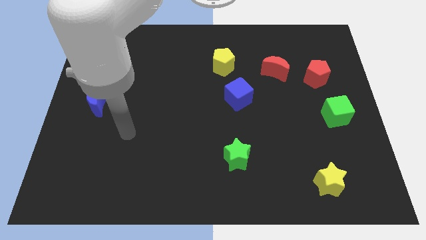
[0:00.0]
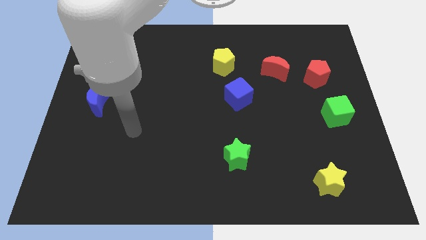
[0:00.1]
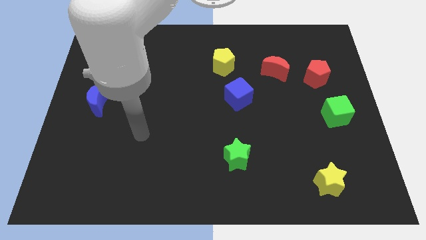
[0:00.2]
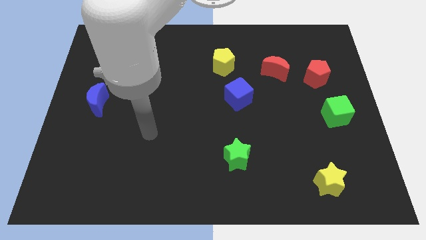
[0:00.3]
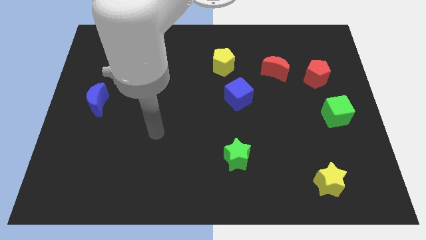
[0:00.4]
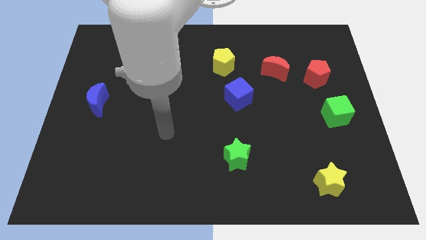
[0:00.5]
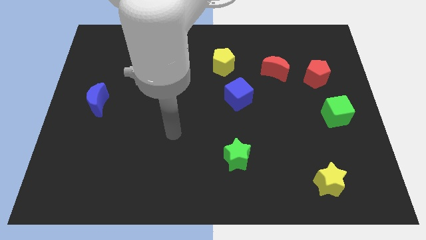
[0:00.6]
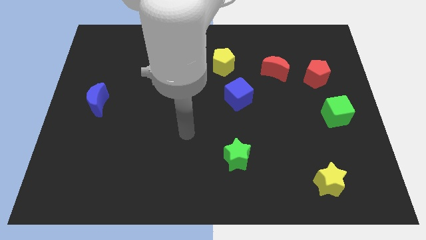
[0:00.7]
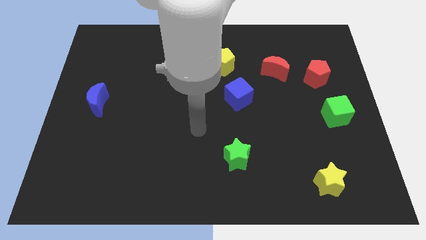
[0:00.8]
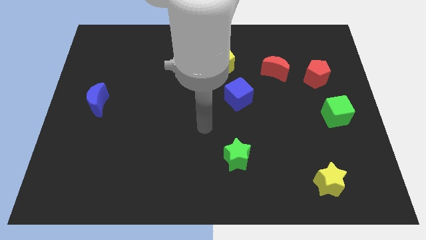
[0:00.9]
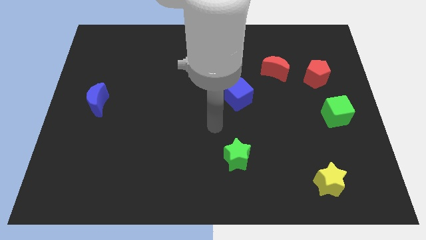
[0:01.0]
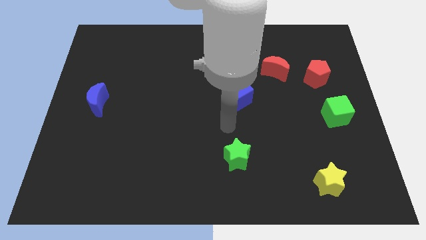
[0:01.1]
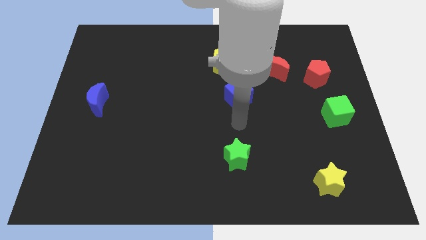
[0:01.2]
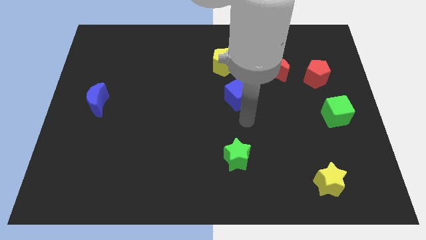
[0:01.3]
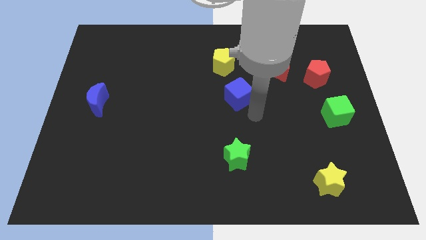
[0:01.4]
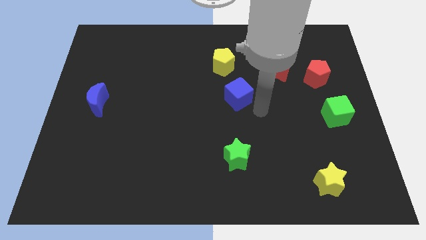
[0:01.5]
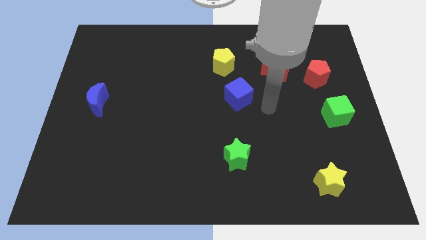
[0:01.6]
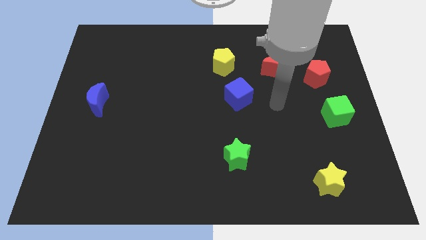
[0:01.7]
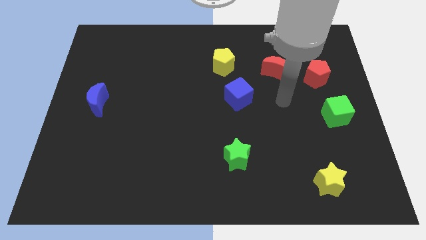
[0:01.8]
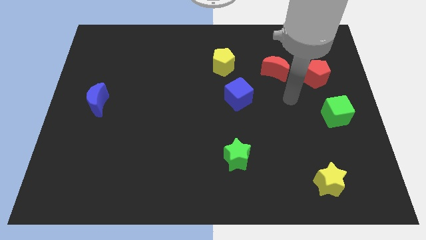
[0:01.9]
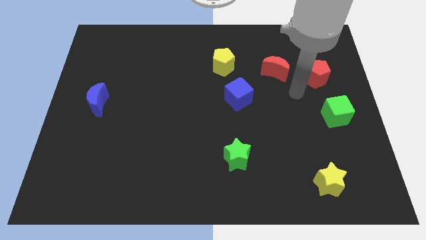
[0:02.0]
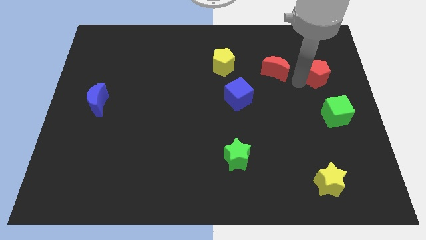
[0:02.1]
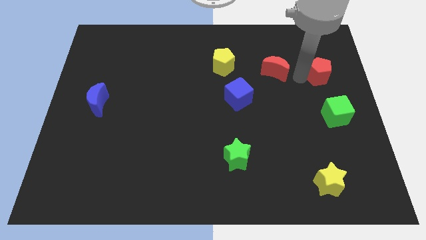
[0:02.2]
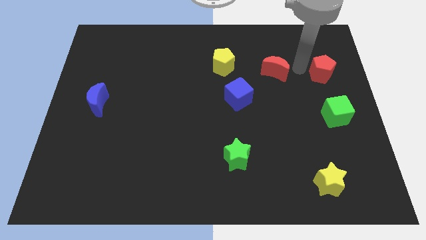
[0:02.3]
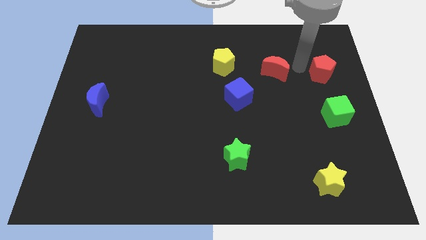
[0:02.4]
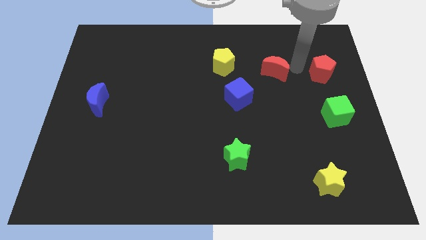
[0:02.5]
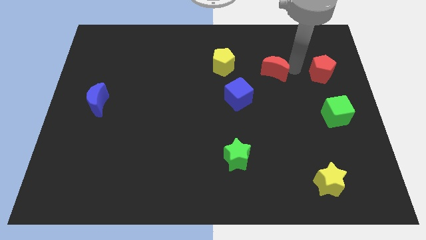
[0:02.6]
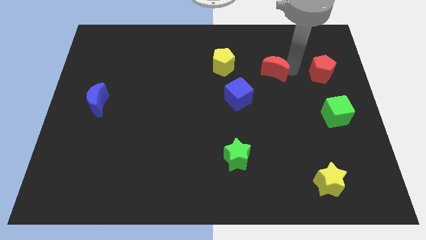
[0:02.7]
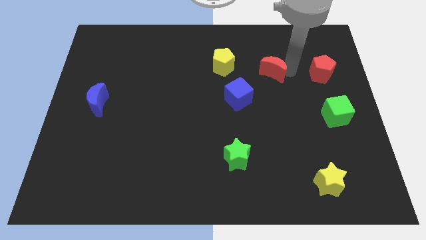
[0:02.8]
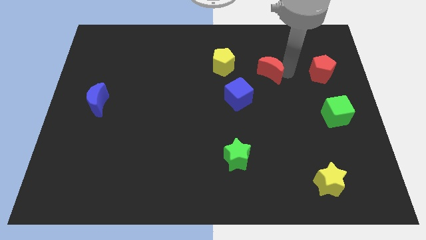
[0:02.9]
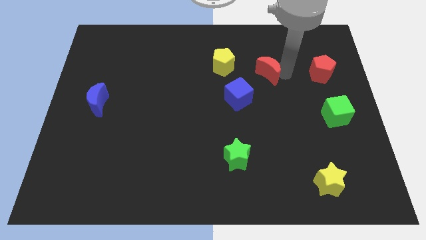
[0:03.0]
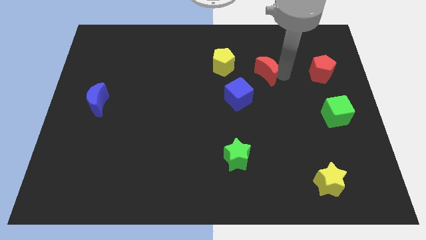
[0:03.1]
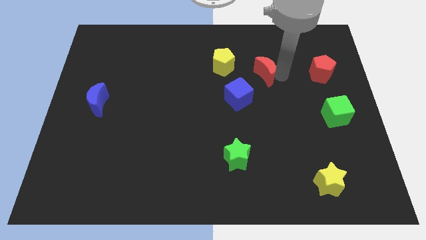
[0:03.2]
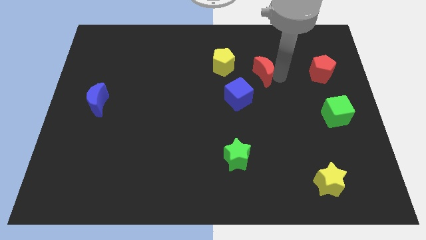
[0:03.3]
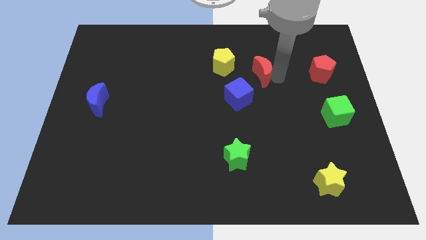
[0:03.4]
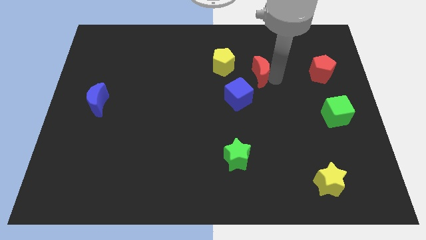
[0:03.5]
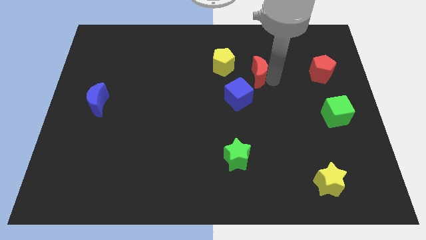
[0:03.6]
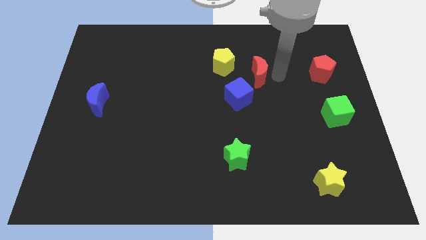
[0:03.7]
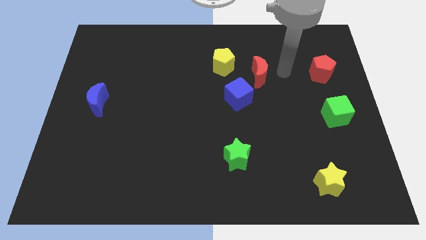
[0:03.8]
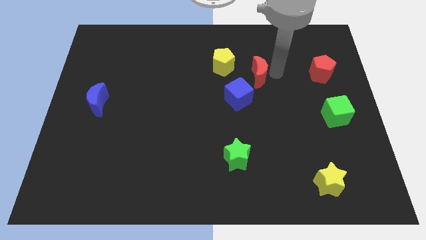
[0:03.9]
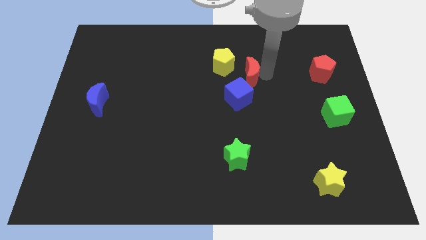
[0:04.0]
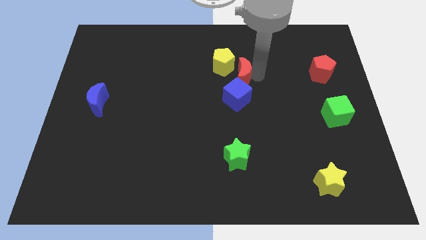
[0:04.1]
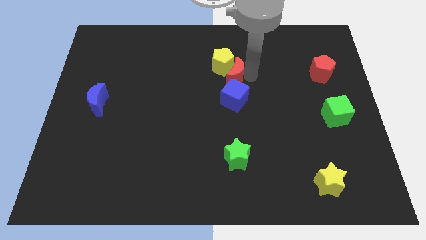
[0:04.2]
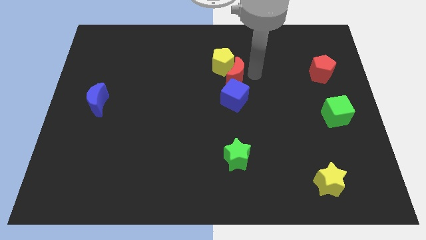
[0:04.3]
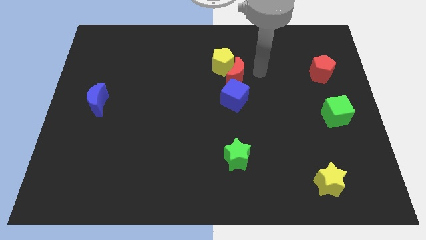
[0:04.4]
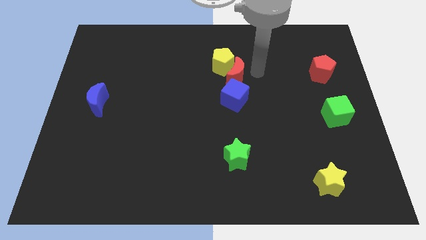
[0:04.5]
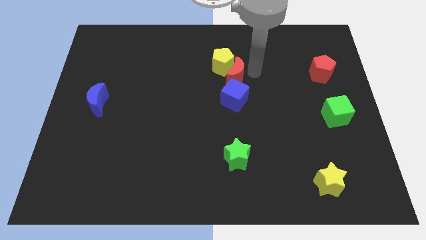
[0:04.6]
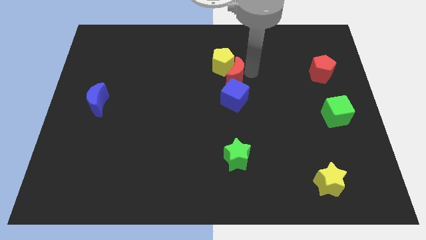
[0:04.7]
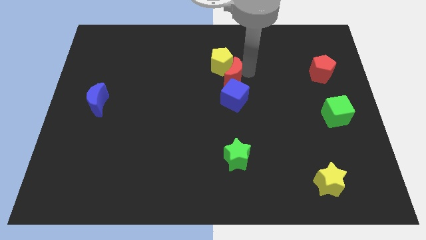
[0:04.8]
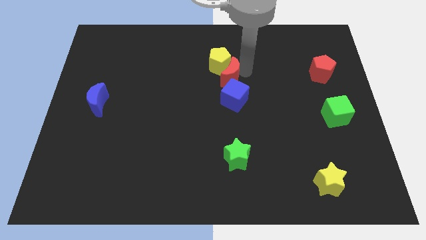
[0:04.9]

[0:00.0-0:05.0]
put the red moon to the top left side of the blue cube

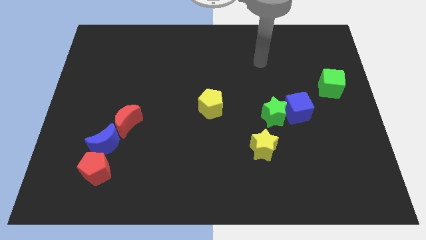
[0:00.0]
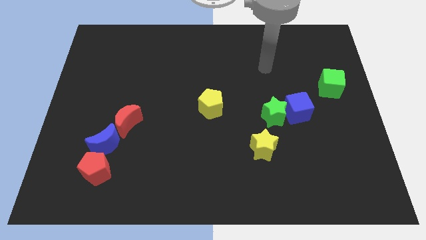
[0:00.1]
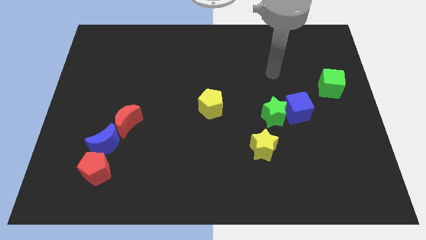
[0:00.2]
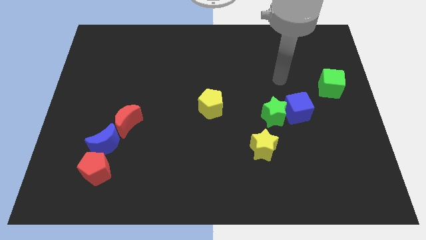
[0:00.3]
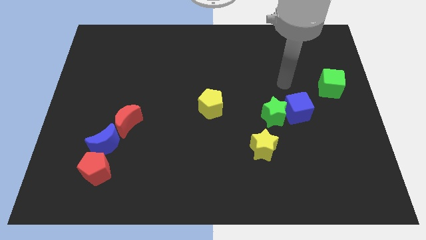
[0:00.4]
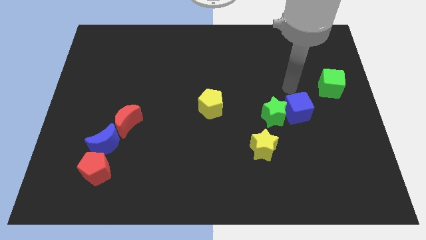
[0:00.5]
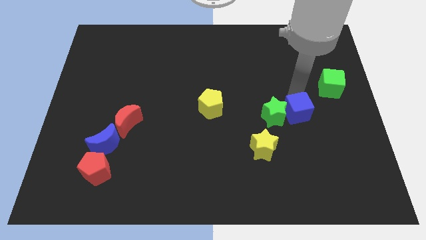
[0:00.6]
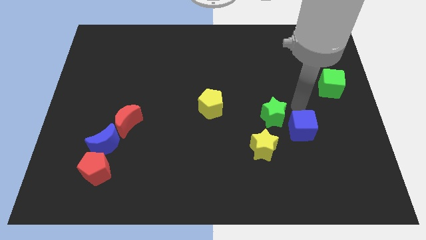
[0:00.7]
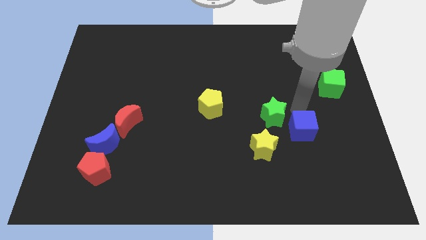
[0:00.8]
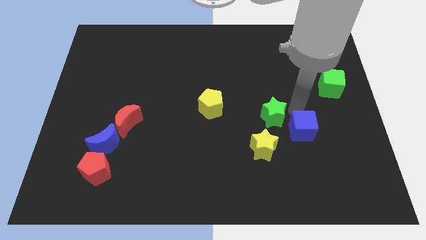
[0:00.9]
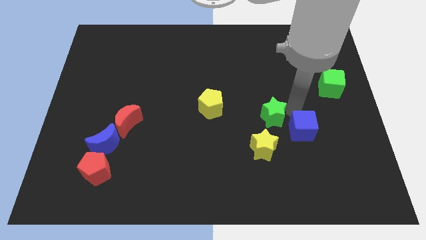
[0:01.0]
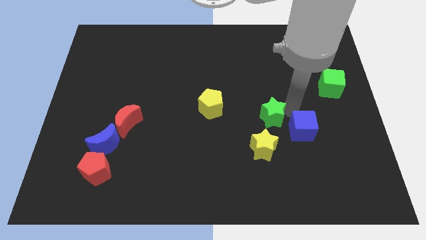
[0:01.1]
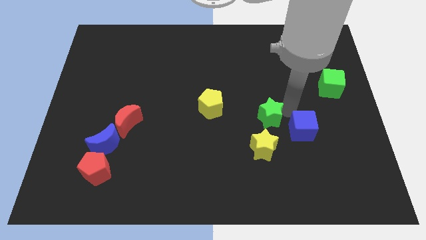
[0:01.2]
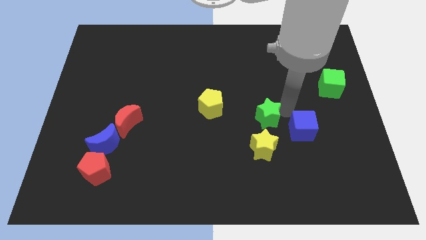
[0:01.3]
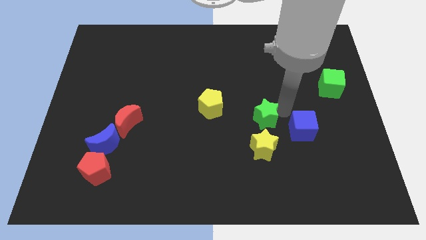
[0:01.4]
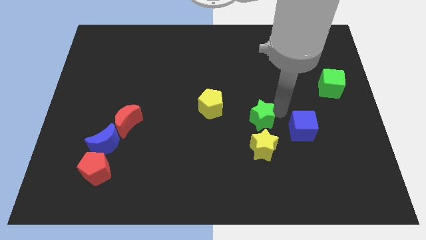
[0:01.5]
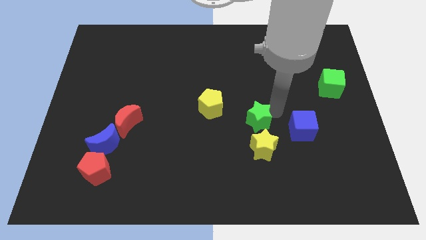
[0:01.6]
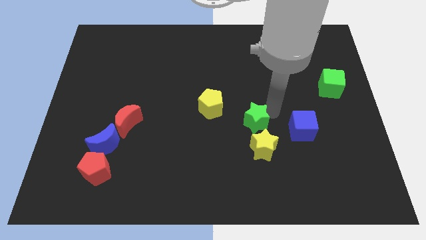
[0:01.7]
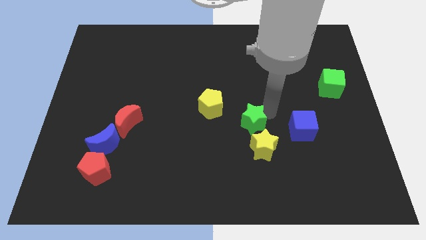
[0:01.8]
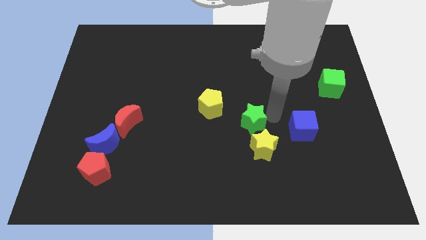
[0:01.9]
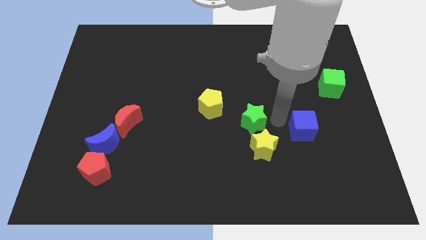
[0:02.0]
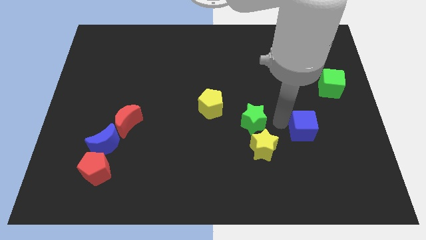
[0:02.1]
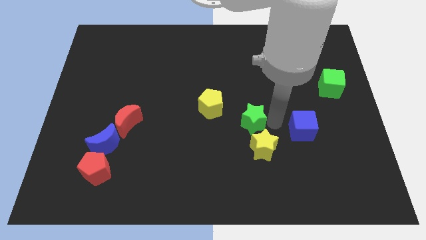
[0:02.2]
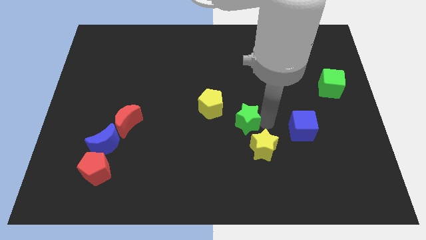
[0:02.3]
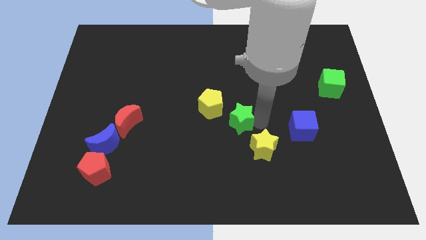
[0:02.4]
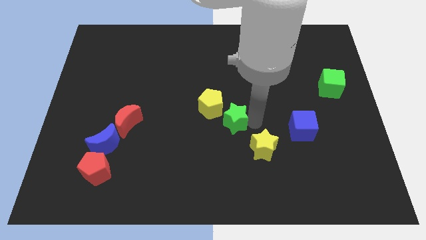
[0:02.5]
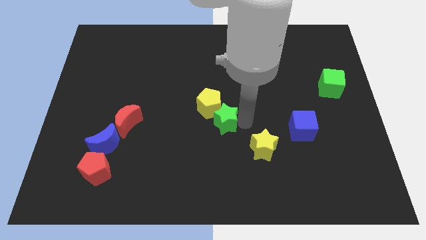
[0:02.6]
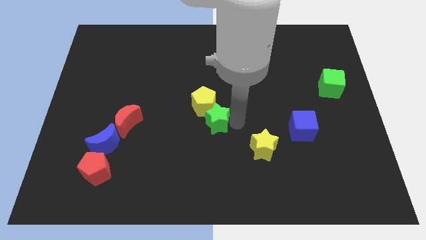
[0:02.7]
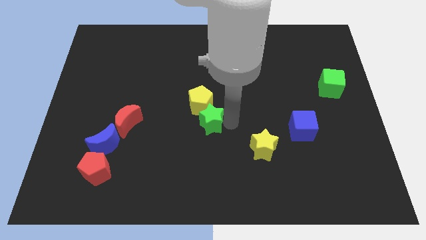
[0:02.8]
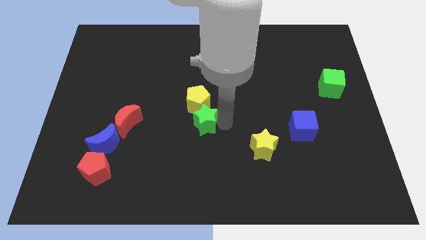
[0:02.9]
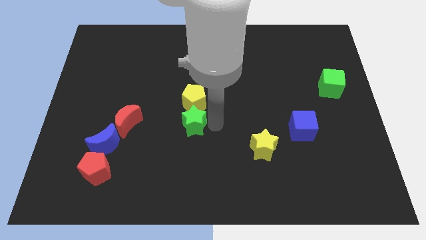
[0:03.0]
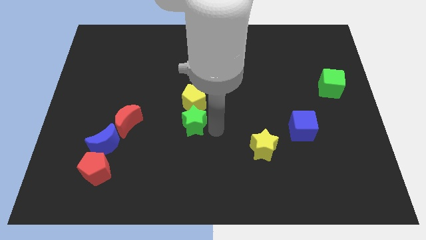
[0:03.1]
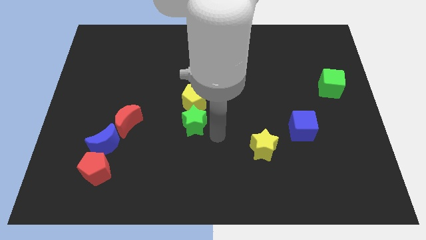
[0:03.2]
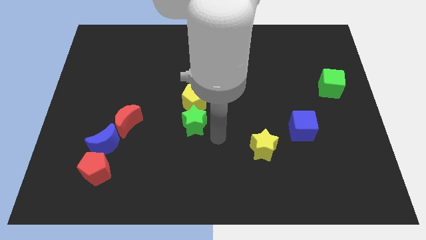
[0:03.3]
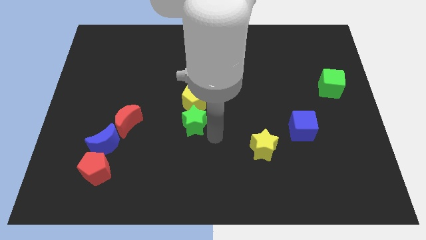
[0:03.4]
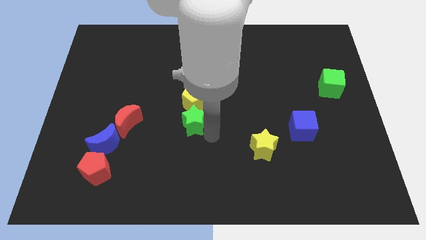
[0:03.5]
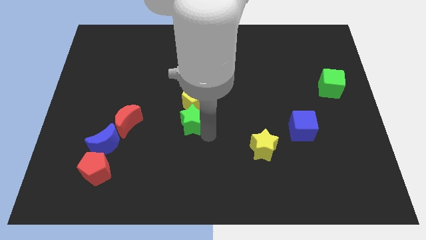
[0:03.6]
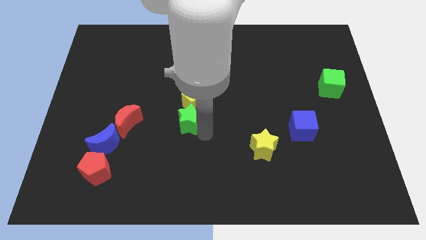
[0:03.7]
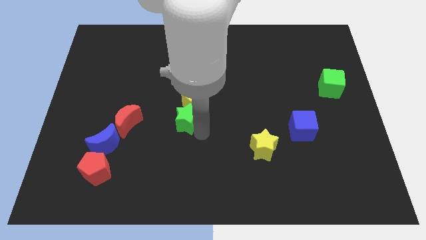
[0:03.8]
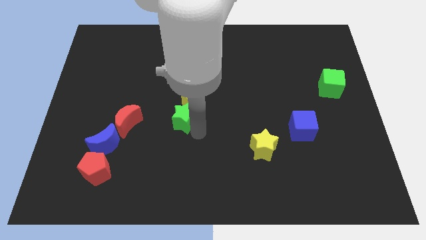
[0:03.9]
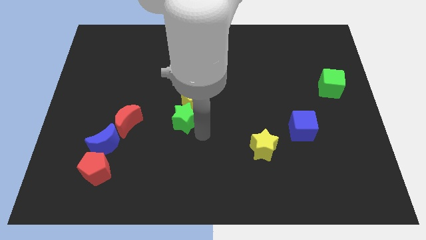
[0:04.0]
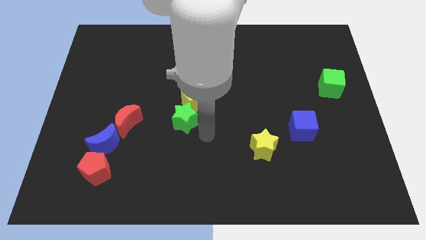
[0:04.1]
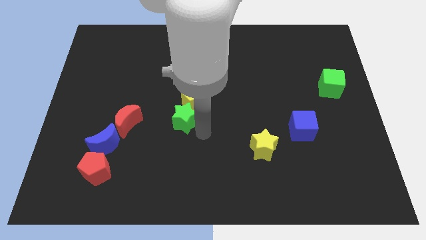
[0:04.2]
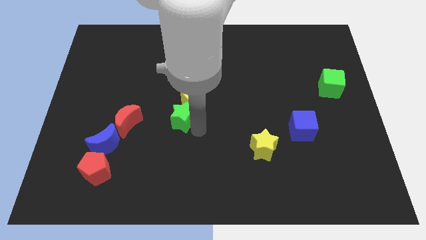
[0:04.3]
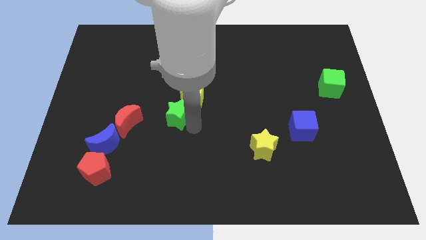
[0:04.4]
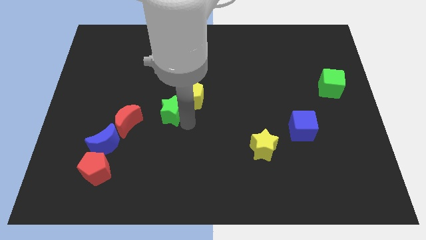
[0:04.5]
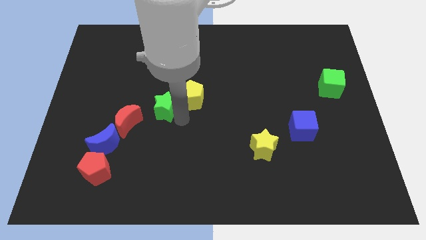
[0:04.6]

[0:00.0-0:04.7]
slide the green star diagonally up and to the right of the red moon
